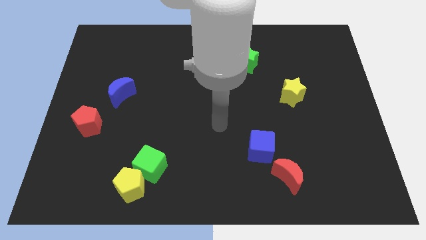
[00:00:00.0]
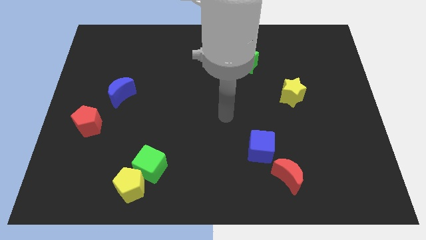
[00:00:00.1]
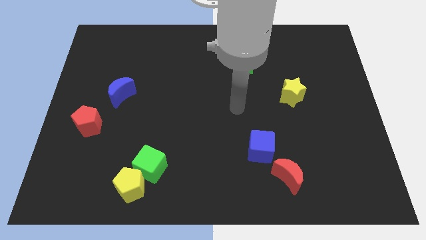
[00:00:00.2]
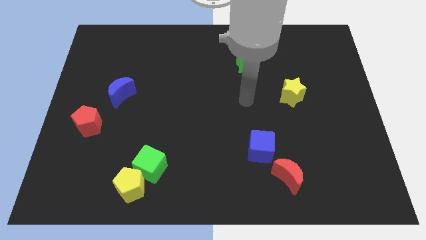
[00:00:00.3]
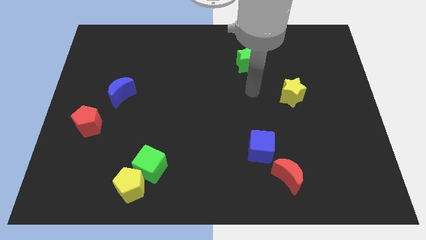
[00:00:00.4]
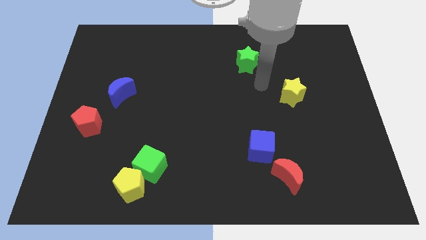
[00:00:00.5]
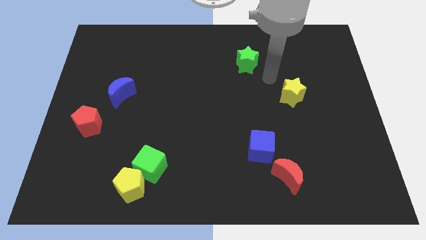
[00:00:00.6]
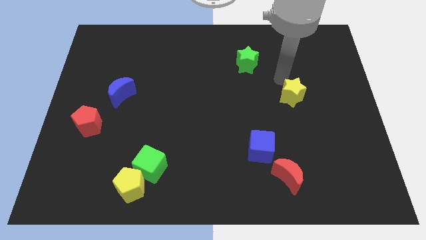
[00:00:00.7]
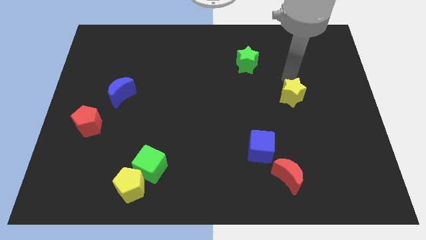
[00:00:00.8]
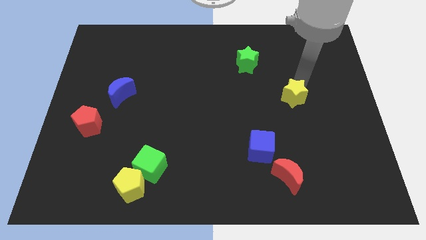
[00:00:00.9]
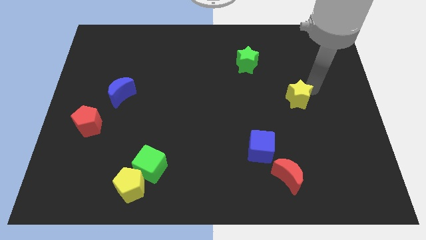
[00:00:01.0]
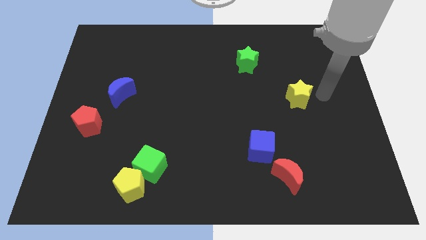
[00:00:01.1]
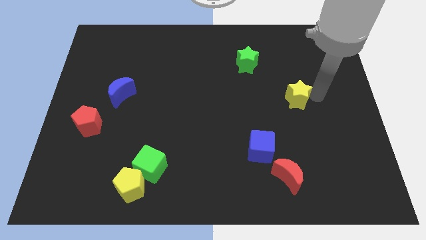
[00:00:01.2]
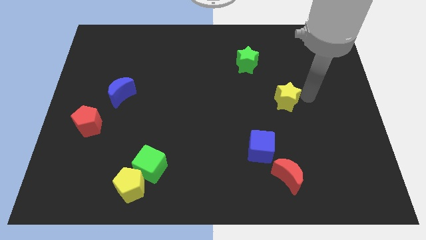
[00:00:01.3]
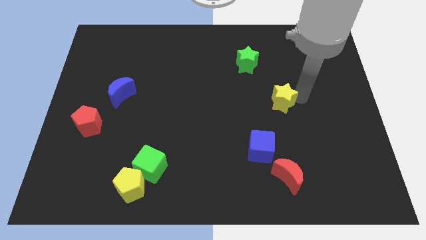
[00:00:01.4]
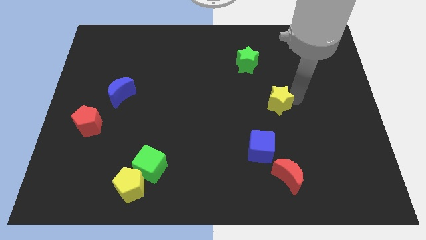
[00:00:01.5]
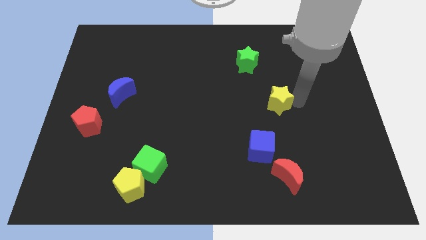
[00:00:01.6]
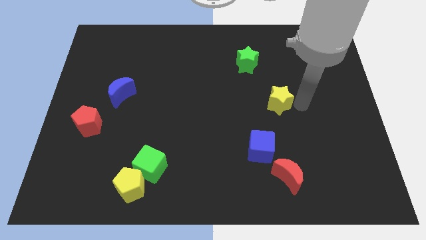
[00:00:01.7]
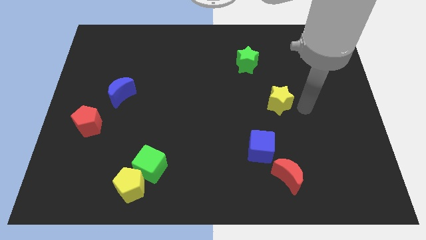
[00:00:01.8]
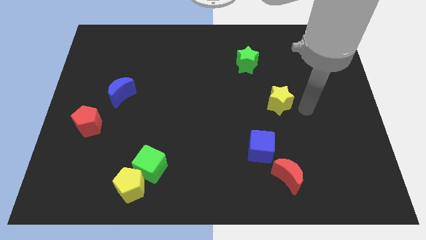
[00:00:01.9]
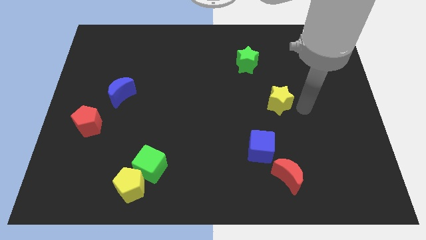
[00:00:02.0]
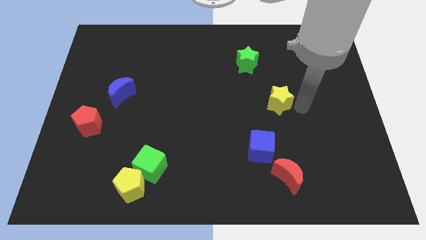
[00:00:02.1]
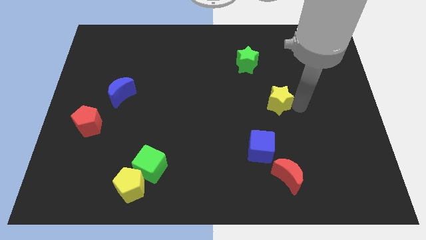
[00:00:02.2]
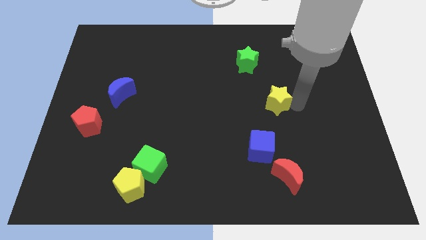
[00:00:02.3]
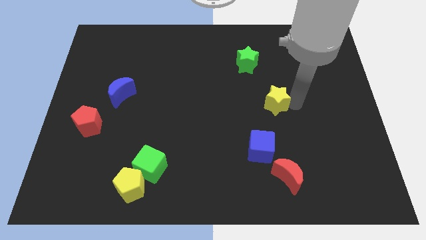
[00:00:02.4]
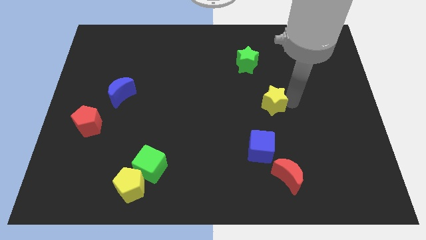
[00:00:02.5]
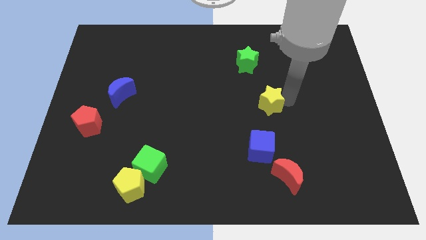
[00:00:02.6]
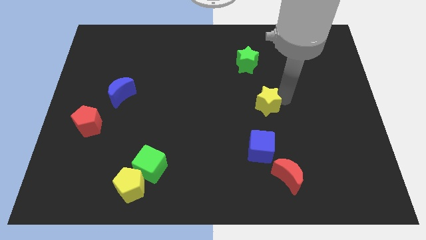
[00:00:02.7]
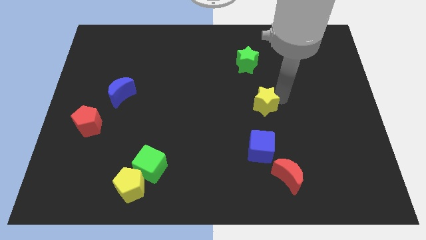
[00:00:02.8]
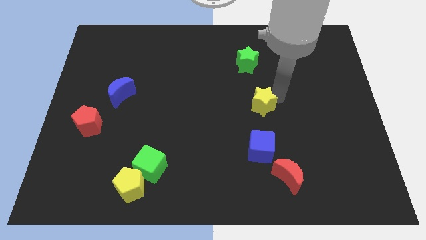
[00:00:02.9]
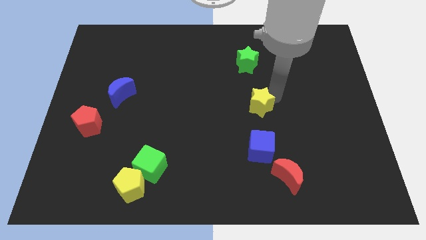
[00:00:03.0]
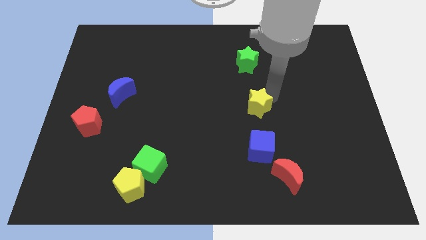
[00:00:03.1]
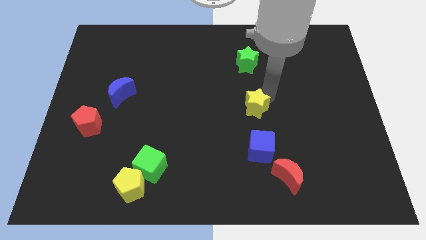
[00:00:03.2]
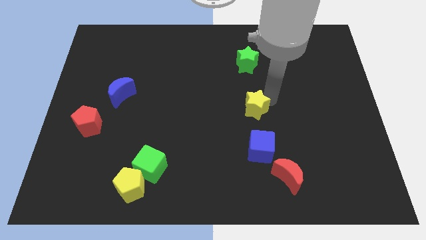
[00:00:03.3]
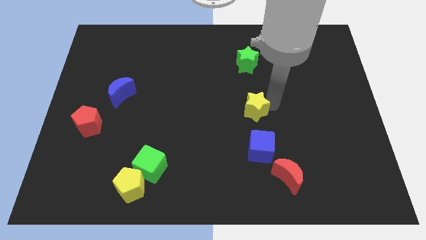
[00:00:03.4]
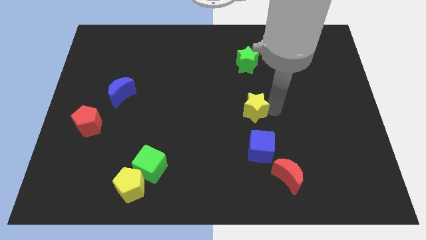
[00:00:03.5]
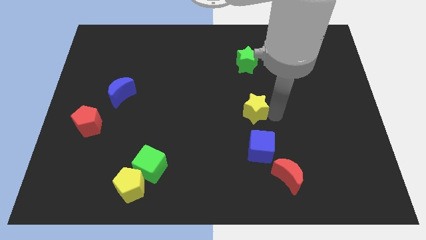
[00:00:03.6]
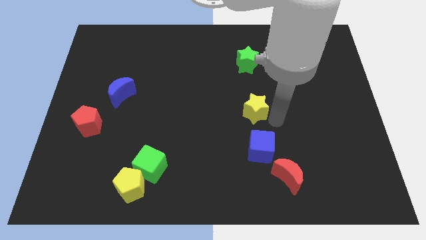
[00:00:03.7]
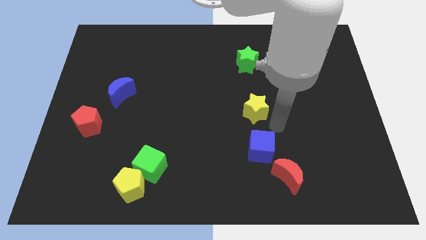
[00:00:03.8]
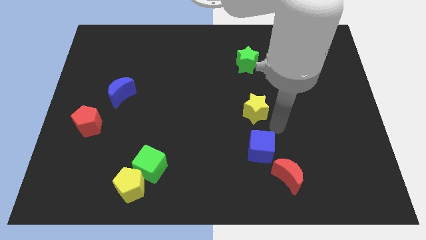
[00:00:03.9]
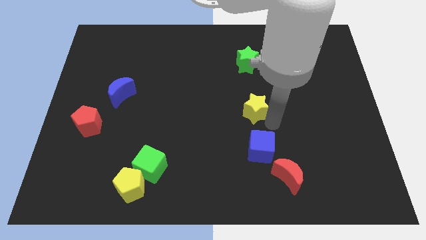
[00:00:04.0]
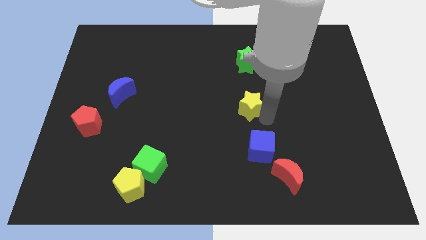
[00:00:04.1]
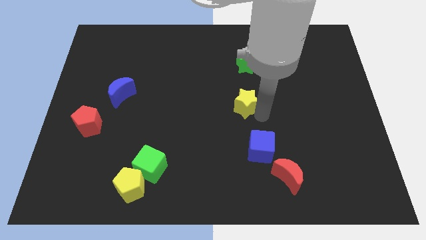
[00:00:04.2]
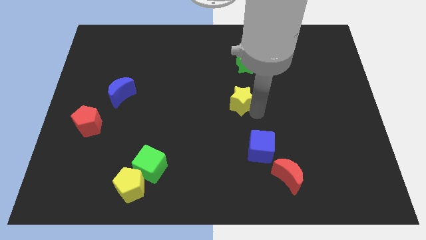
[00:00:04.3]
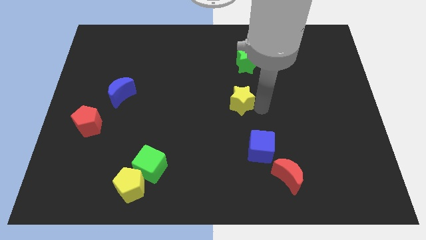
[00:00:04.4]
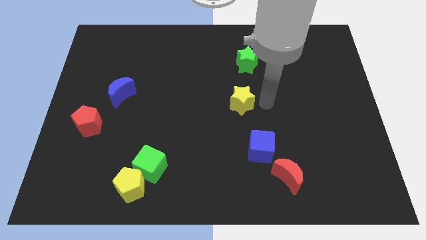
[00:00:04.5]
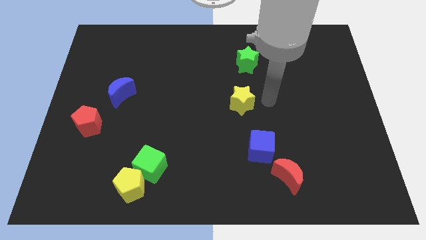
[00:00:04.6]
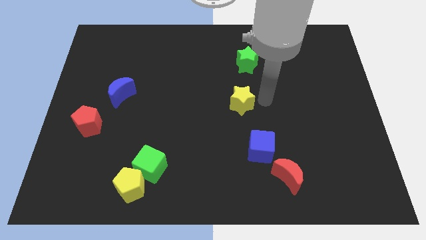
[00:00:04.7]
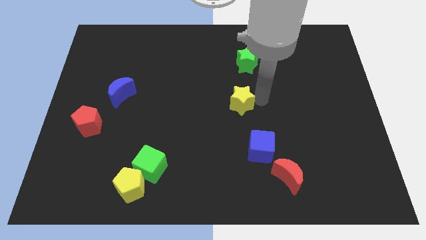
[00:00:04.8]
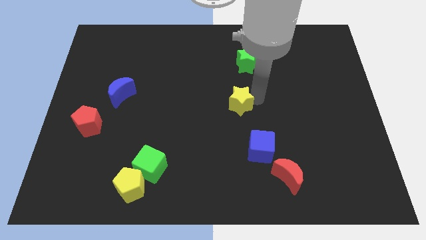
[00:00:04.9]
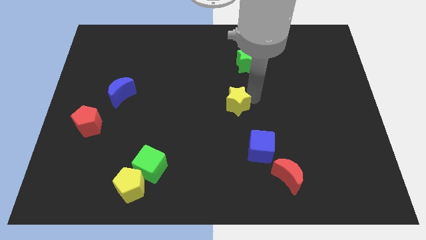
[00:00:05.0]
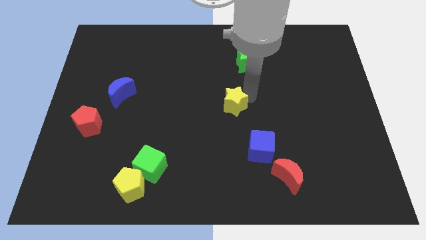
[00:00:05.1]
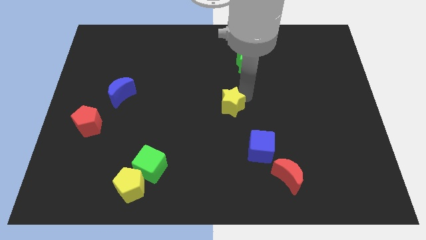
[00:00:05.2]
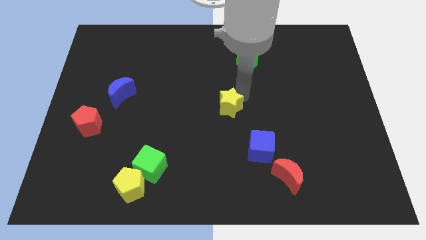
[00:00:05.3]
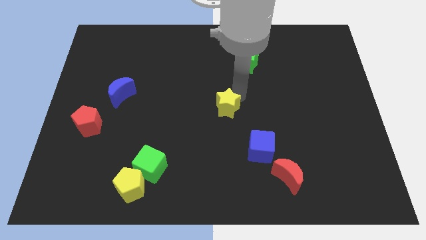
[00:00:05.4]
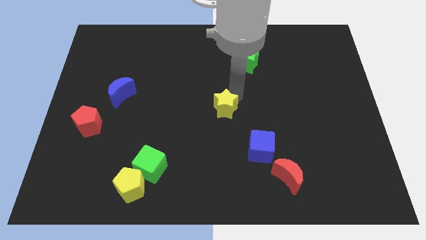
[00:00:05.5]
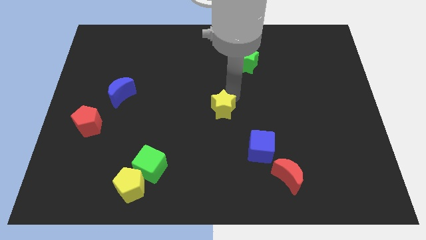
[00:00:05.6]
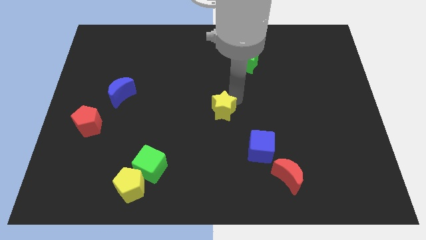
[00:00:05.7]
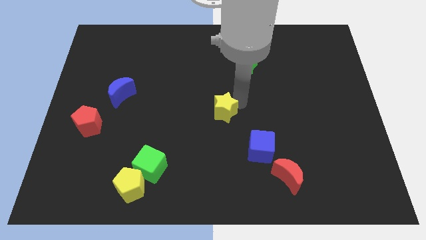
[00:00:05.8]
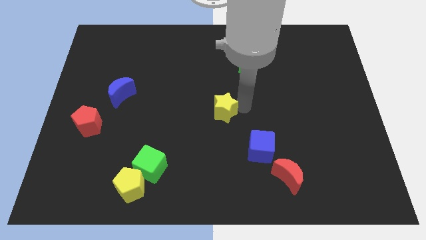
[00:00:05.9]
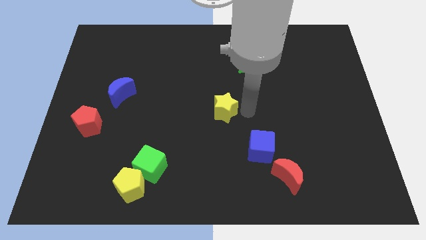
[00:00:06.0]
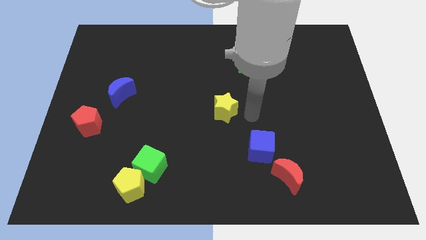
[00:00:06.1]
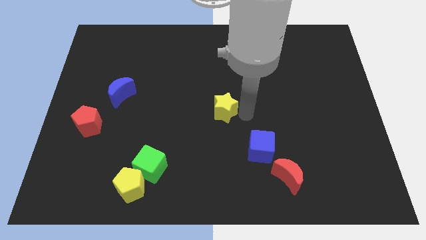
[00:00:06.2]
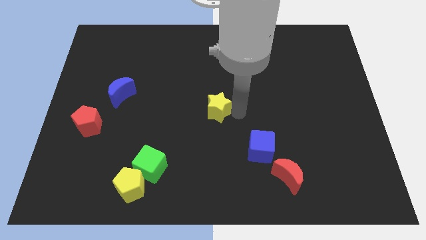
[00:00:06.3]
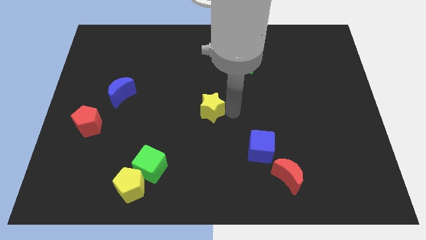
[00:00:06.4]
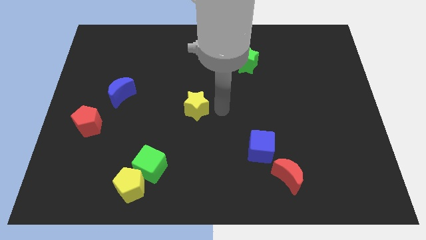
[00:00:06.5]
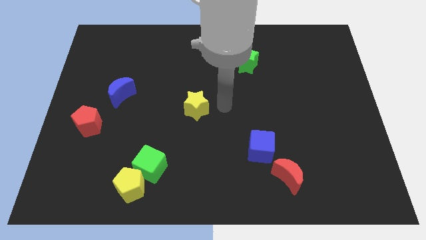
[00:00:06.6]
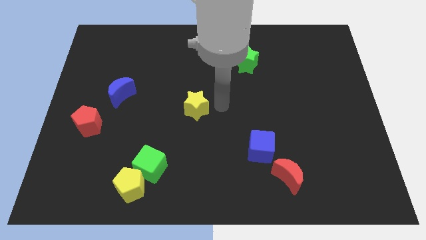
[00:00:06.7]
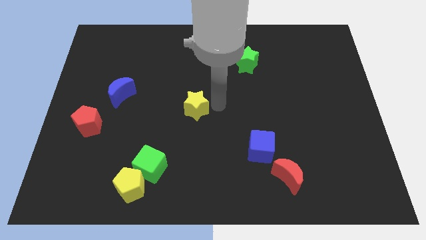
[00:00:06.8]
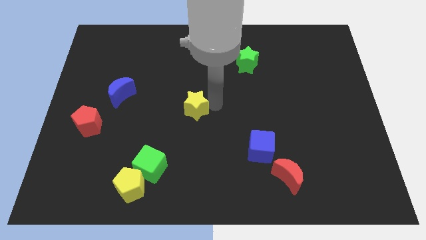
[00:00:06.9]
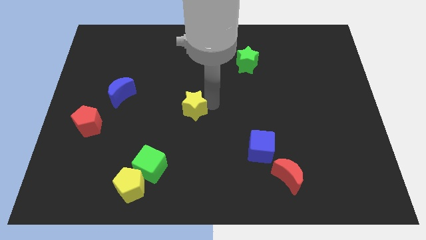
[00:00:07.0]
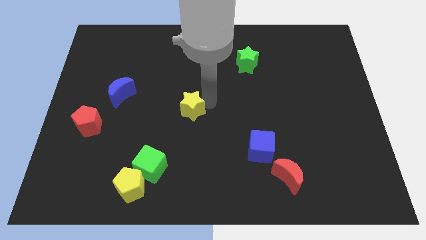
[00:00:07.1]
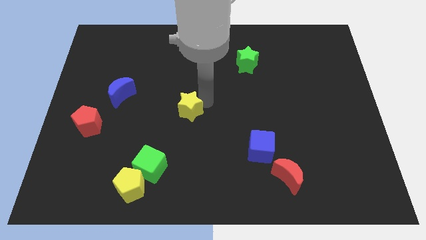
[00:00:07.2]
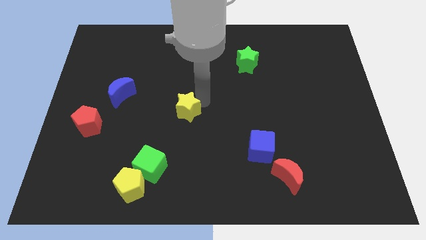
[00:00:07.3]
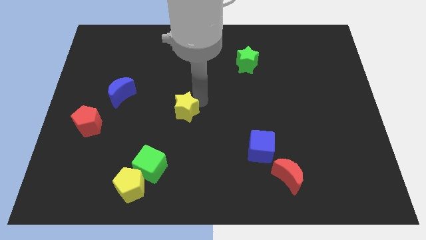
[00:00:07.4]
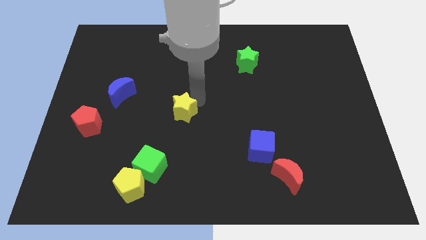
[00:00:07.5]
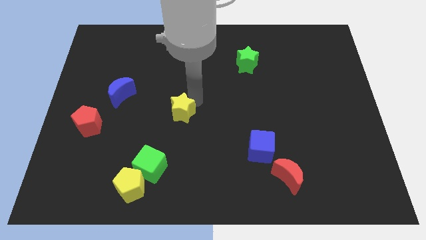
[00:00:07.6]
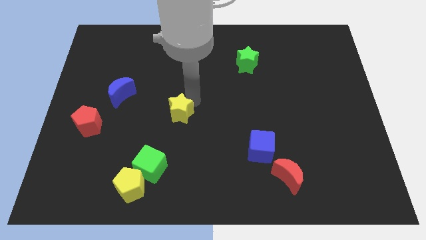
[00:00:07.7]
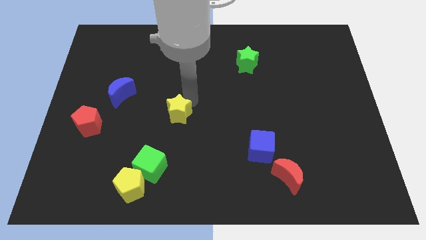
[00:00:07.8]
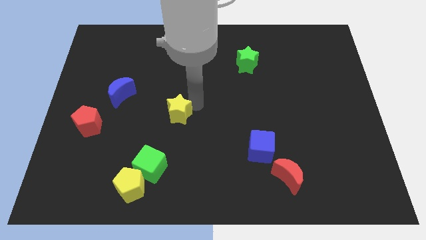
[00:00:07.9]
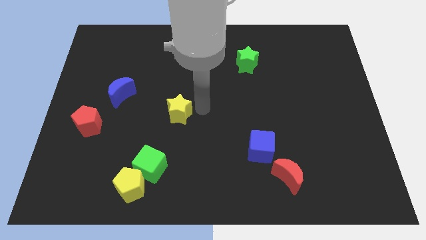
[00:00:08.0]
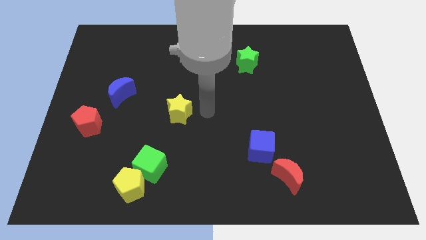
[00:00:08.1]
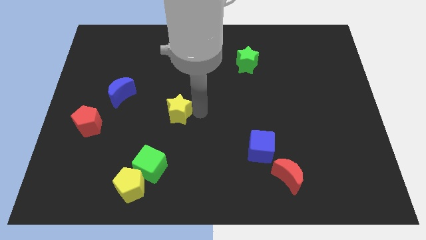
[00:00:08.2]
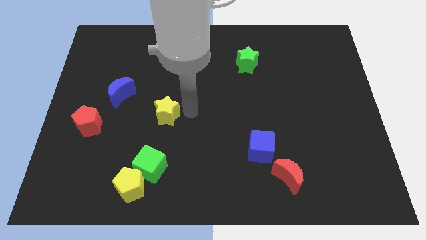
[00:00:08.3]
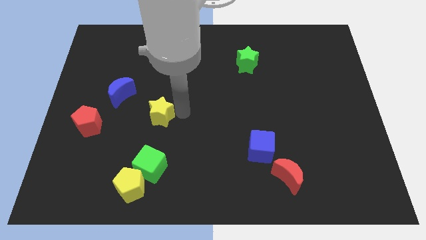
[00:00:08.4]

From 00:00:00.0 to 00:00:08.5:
push the yellow star to the bottom right of the blue moon
